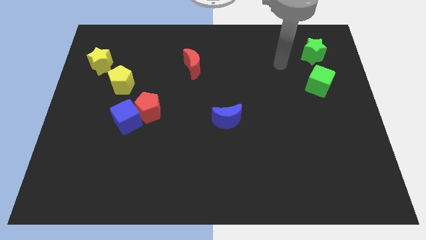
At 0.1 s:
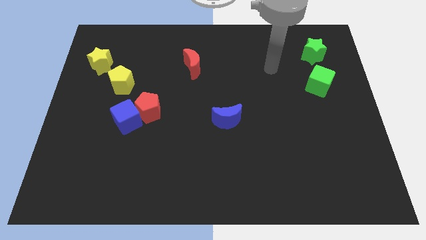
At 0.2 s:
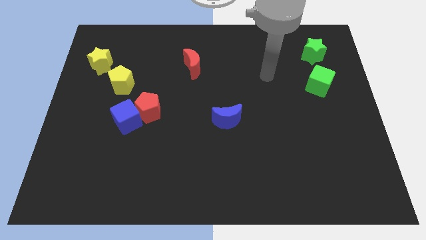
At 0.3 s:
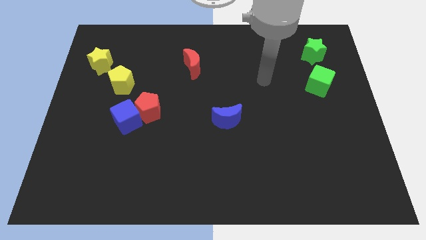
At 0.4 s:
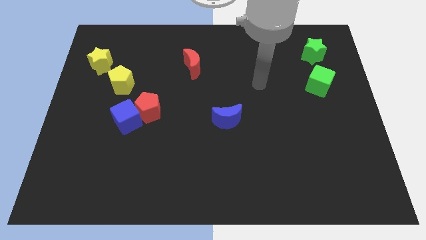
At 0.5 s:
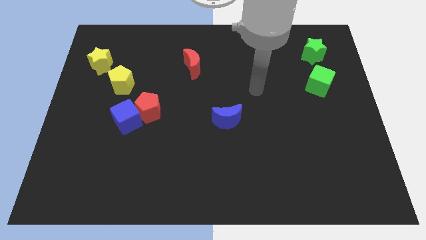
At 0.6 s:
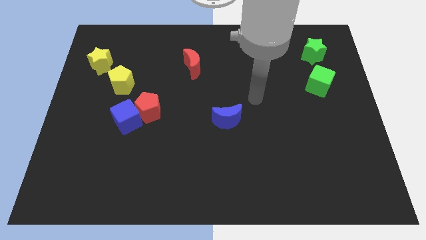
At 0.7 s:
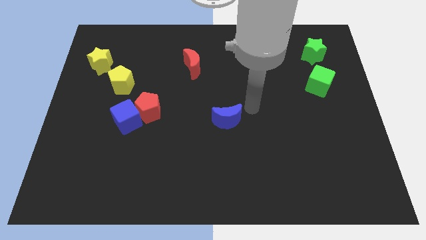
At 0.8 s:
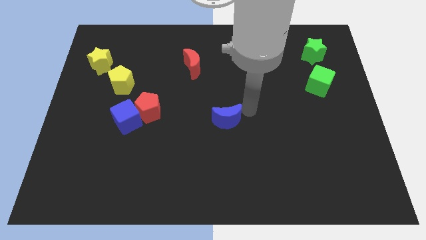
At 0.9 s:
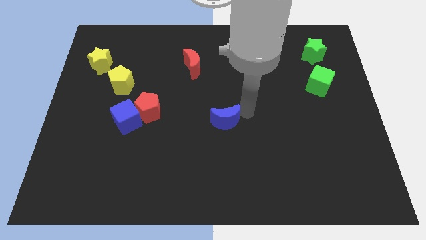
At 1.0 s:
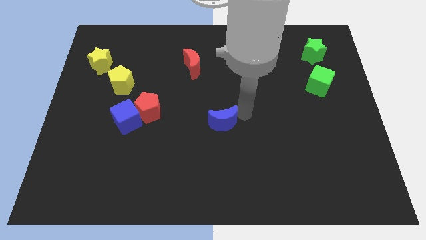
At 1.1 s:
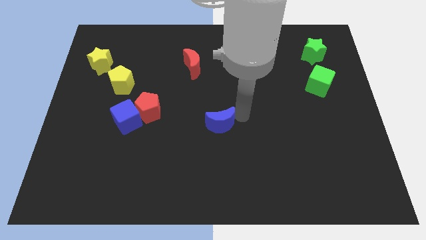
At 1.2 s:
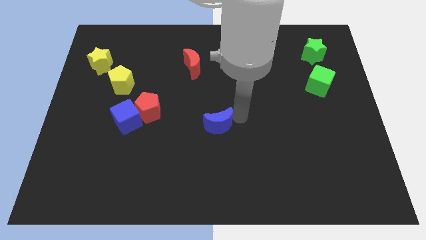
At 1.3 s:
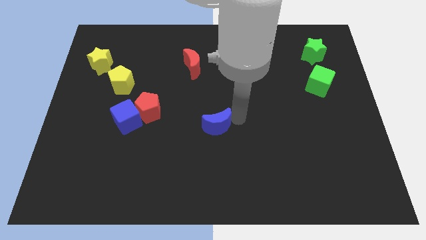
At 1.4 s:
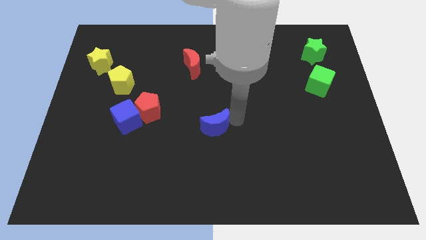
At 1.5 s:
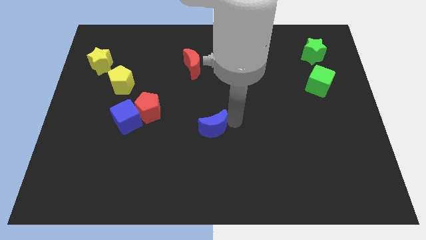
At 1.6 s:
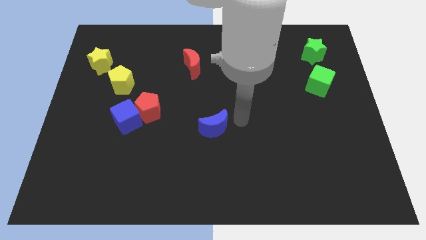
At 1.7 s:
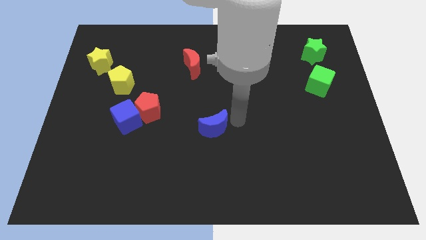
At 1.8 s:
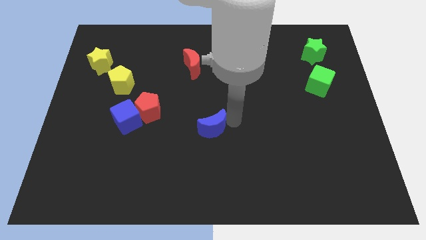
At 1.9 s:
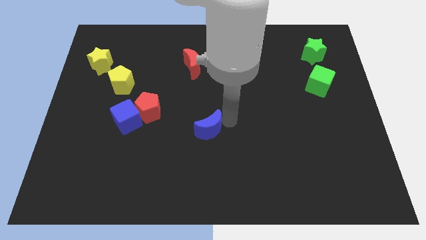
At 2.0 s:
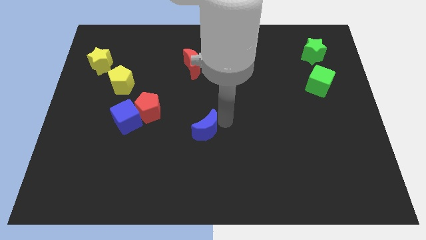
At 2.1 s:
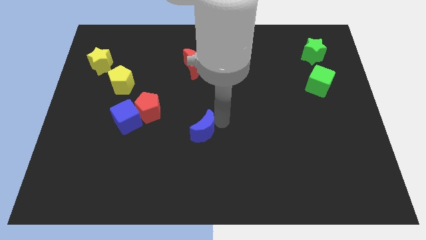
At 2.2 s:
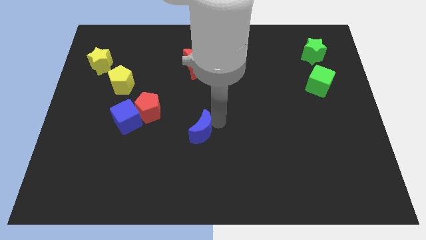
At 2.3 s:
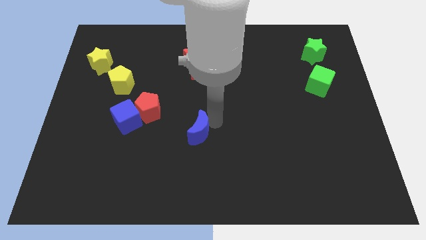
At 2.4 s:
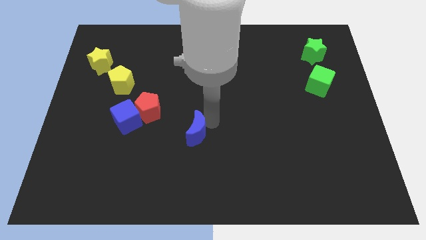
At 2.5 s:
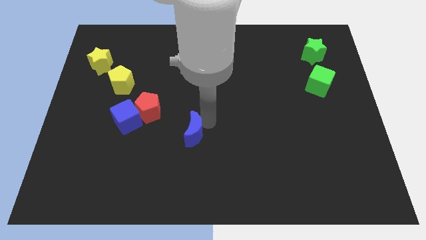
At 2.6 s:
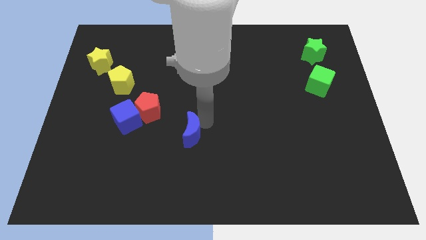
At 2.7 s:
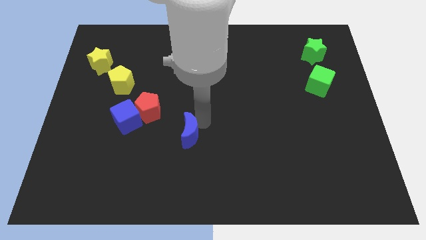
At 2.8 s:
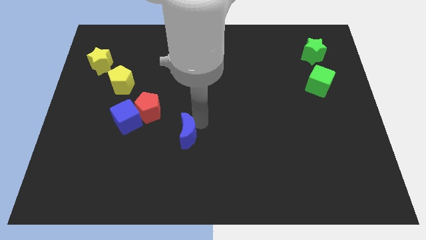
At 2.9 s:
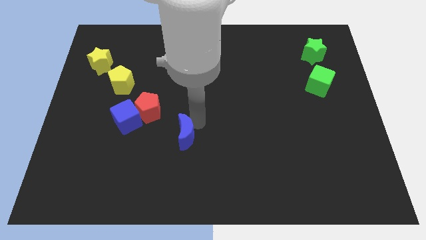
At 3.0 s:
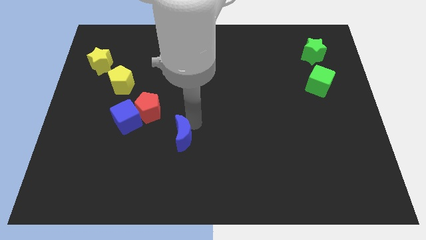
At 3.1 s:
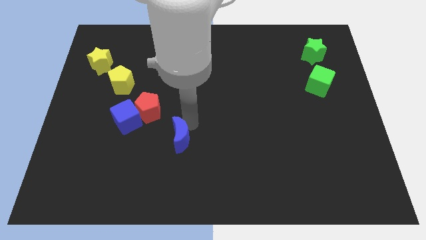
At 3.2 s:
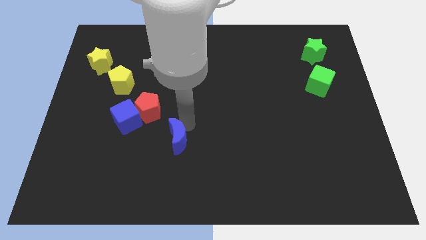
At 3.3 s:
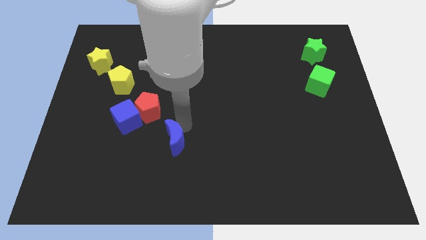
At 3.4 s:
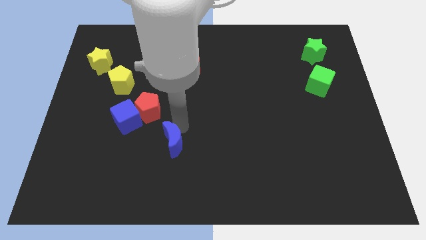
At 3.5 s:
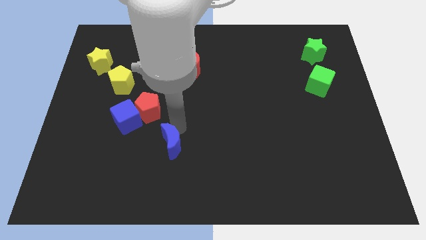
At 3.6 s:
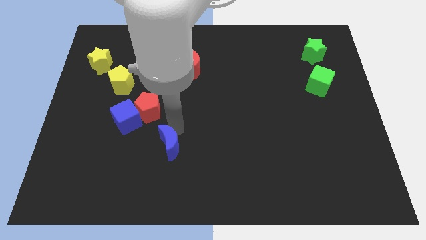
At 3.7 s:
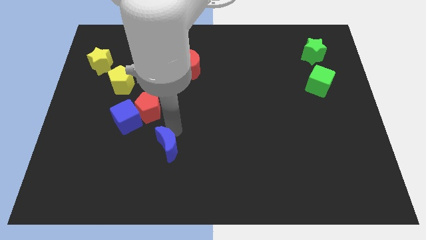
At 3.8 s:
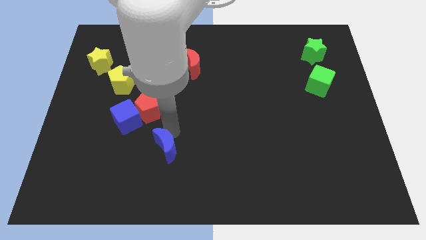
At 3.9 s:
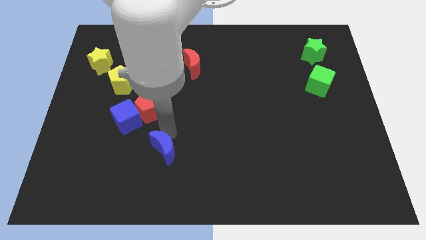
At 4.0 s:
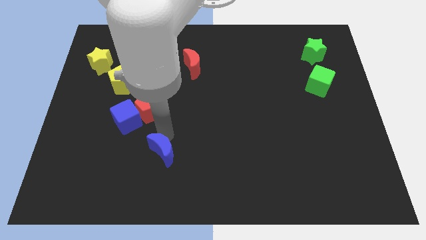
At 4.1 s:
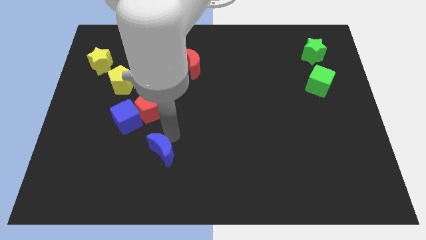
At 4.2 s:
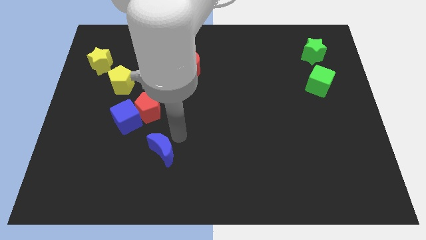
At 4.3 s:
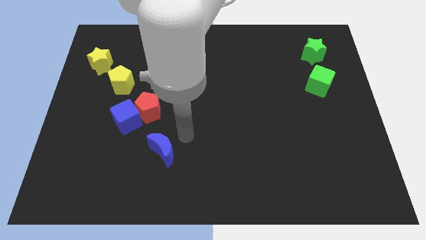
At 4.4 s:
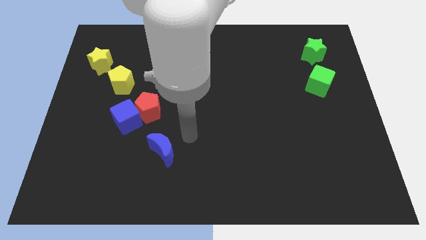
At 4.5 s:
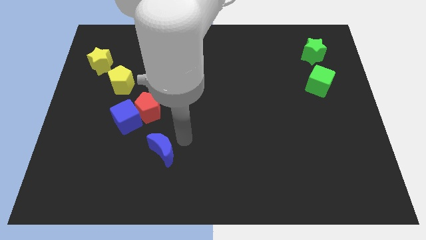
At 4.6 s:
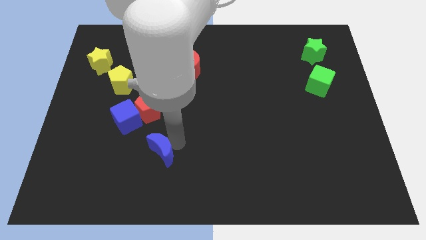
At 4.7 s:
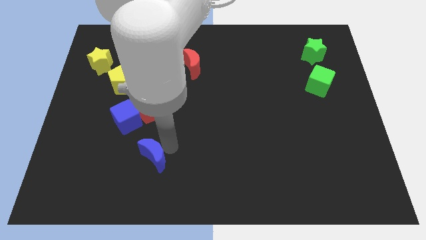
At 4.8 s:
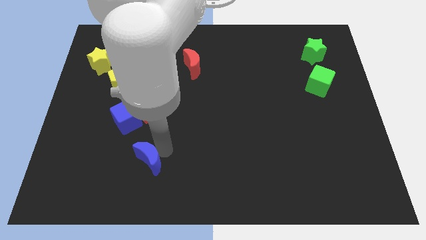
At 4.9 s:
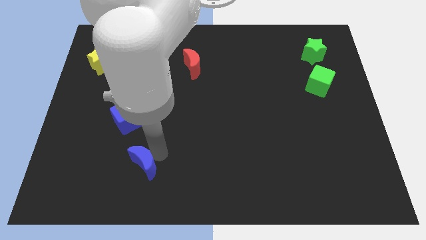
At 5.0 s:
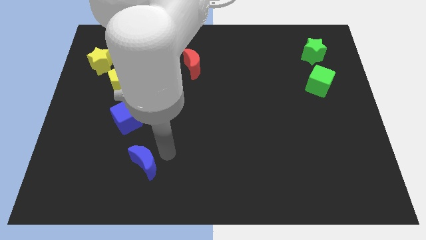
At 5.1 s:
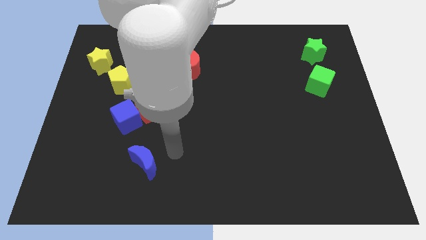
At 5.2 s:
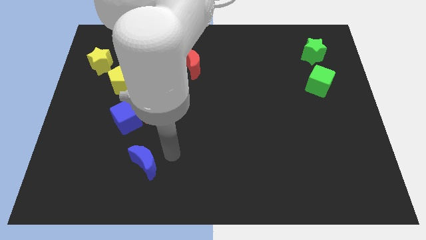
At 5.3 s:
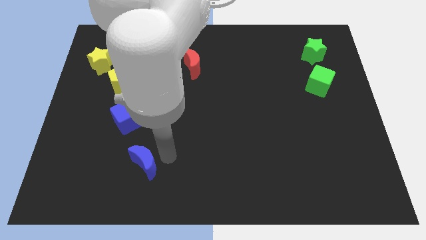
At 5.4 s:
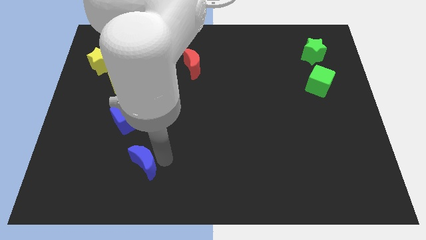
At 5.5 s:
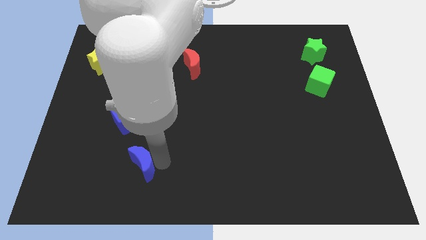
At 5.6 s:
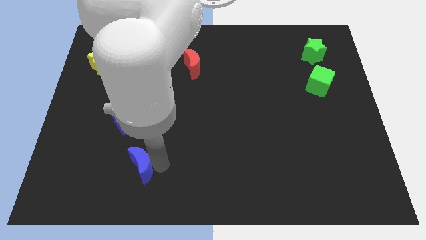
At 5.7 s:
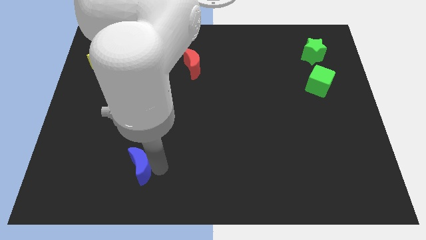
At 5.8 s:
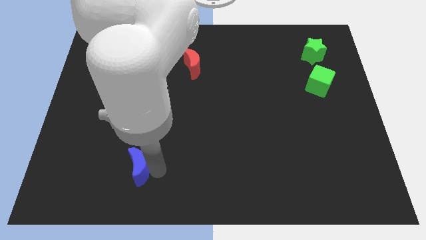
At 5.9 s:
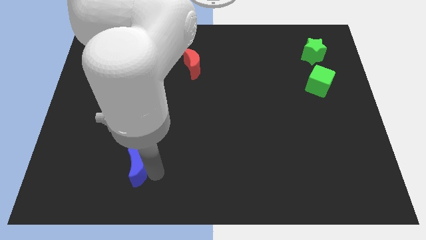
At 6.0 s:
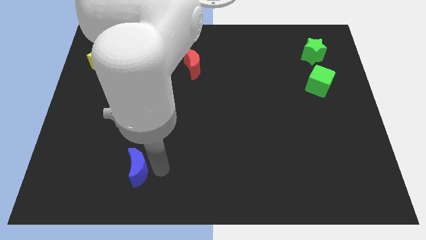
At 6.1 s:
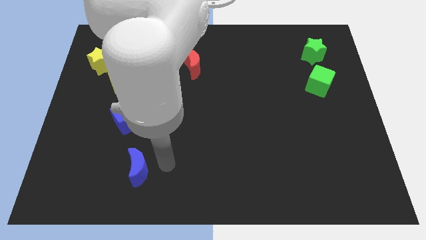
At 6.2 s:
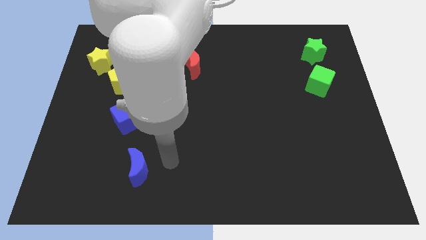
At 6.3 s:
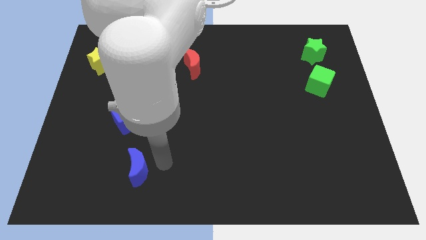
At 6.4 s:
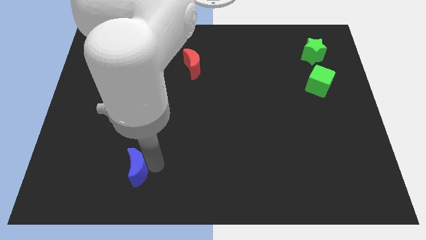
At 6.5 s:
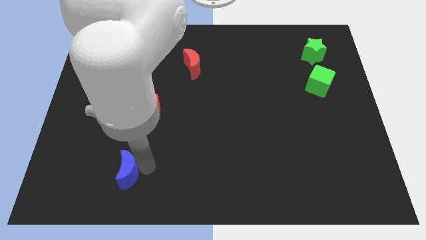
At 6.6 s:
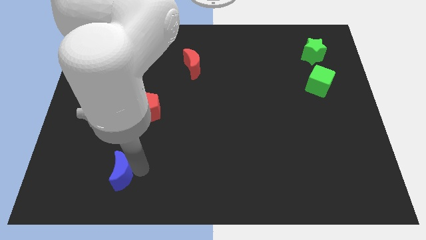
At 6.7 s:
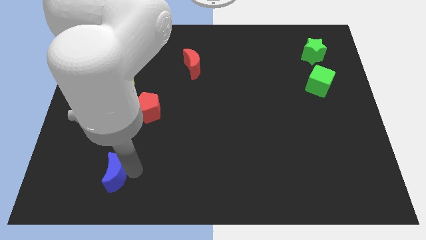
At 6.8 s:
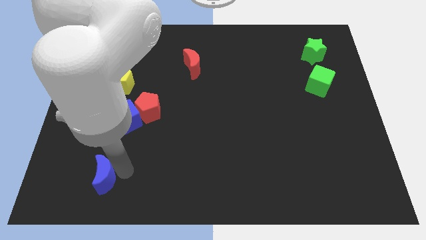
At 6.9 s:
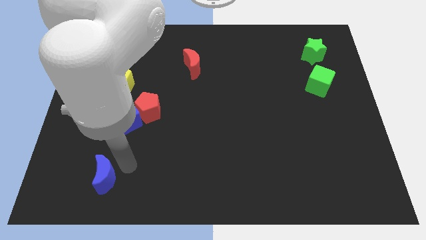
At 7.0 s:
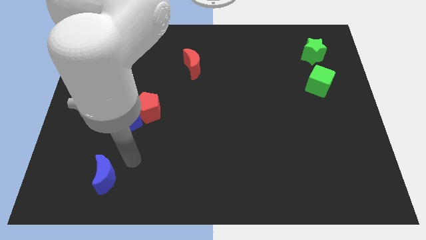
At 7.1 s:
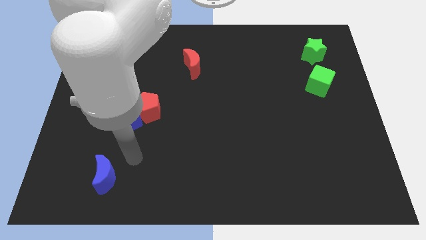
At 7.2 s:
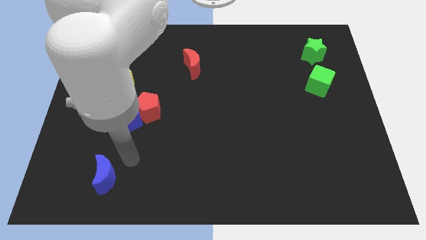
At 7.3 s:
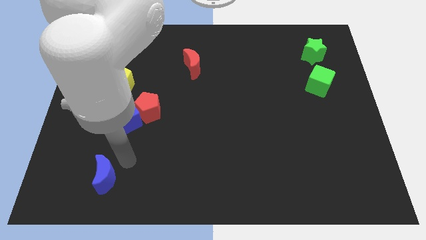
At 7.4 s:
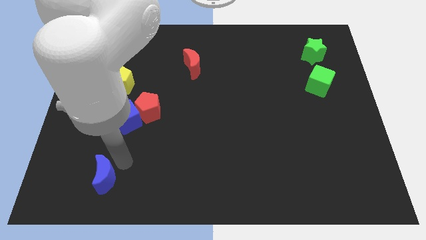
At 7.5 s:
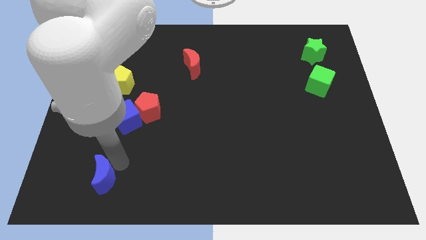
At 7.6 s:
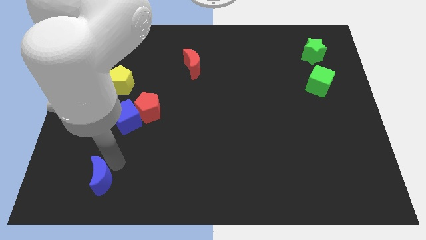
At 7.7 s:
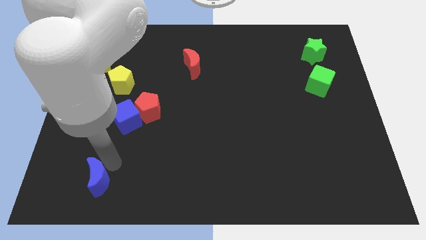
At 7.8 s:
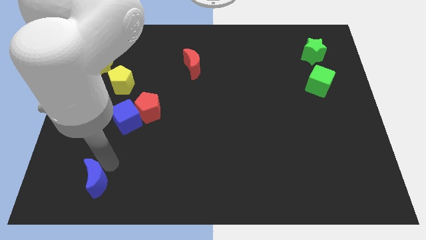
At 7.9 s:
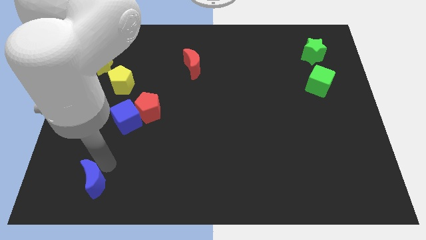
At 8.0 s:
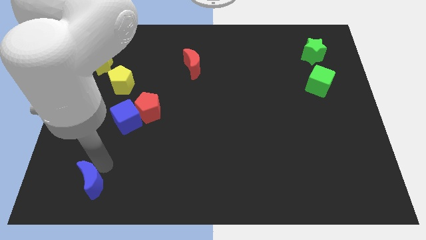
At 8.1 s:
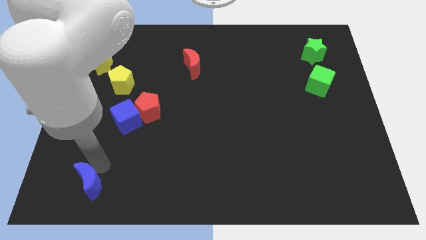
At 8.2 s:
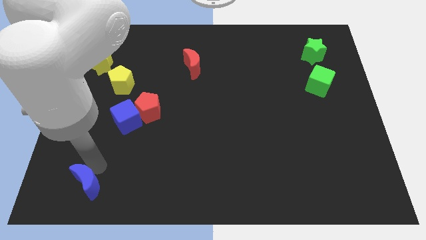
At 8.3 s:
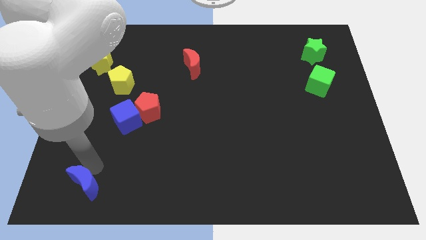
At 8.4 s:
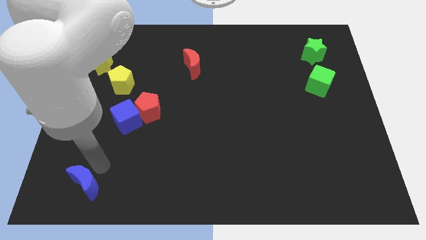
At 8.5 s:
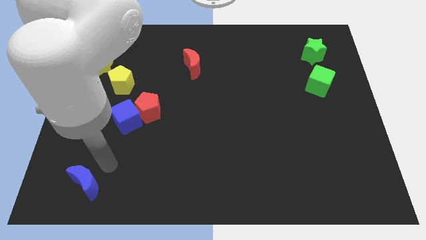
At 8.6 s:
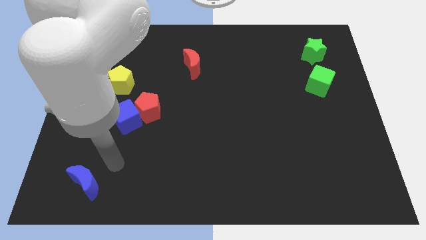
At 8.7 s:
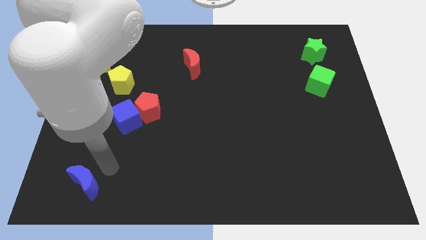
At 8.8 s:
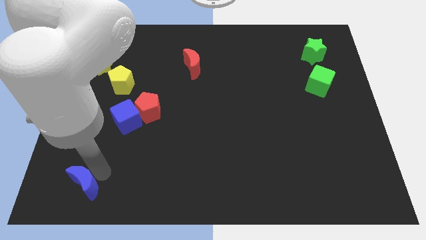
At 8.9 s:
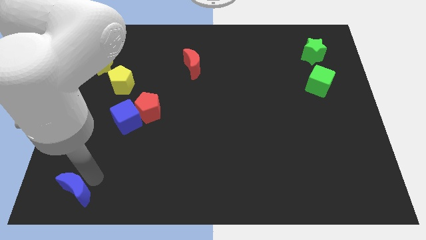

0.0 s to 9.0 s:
put the blue moon to the lower left corner
